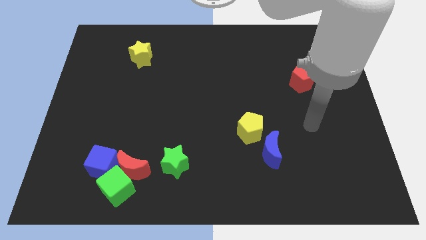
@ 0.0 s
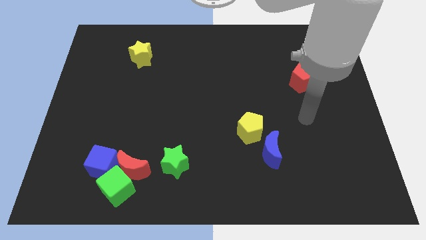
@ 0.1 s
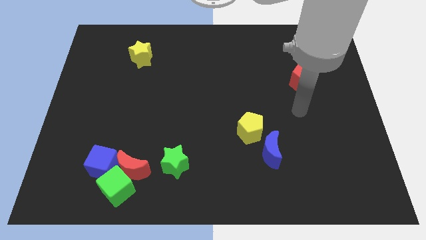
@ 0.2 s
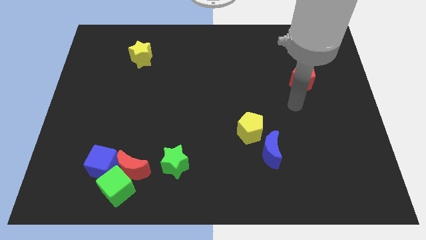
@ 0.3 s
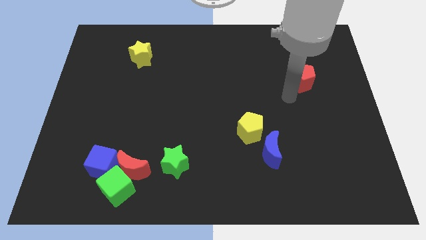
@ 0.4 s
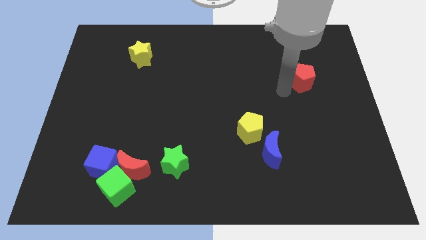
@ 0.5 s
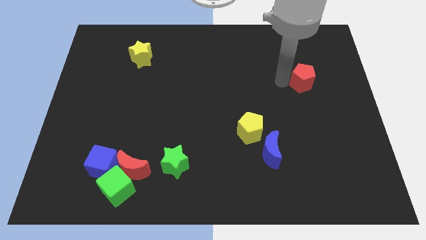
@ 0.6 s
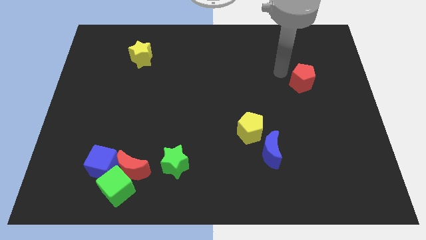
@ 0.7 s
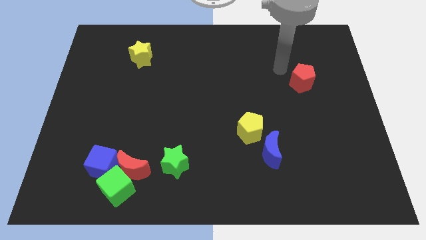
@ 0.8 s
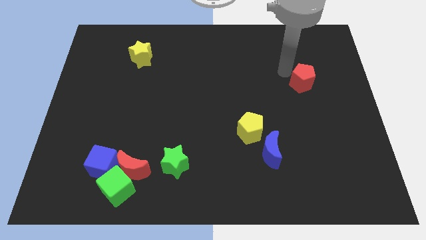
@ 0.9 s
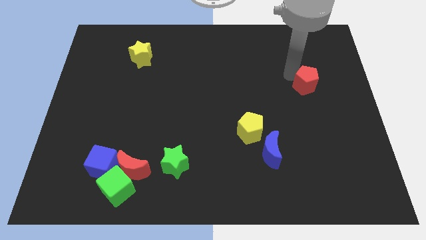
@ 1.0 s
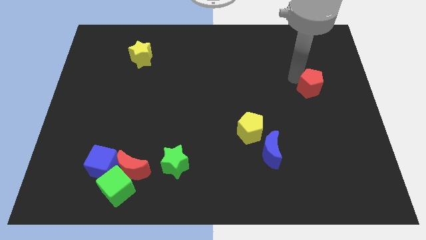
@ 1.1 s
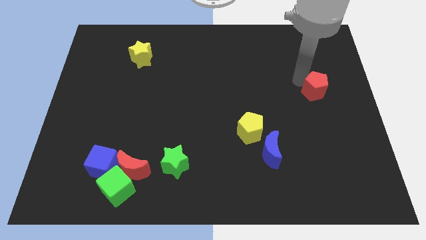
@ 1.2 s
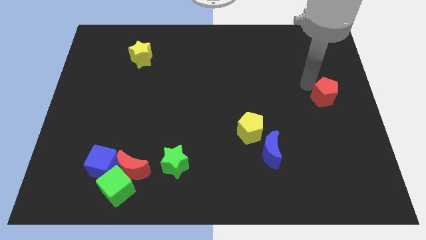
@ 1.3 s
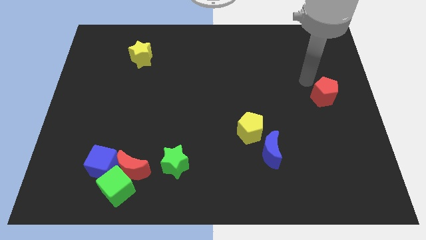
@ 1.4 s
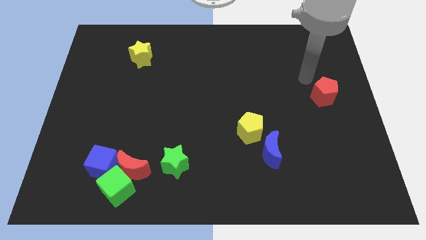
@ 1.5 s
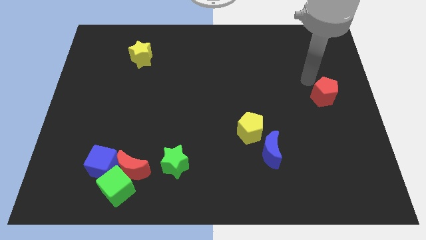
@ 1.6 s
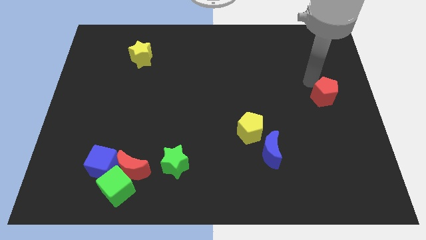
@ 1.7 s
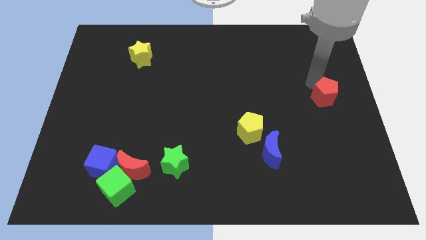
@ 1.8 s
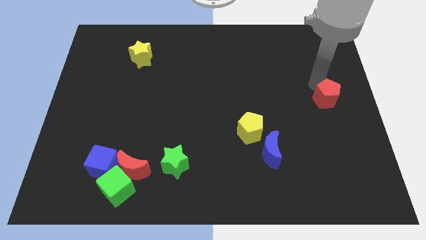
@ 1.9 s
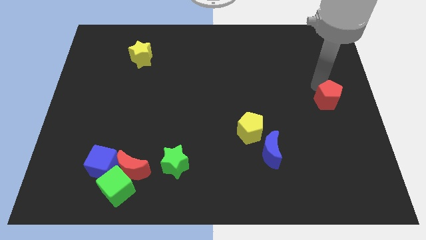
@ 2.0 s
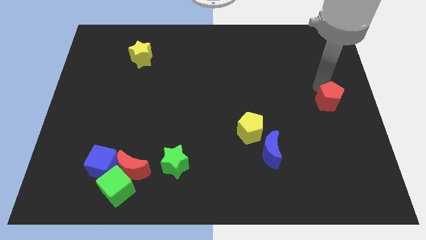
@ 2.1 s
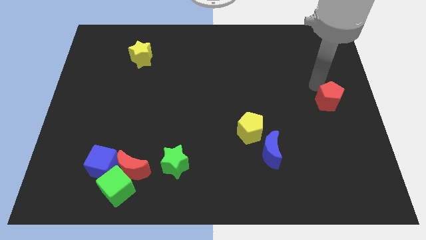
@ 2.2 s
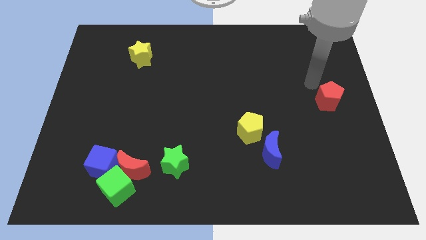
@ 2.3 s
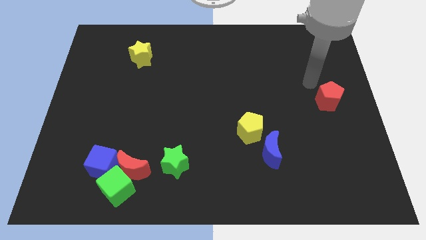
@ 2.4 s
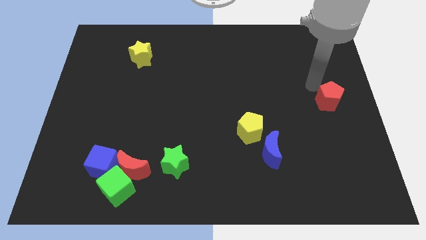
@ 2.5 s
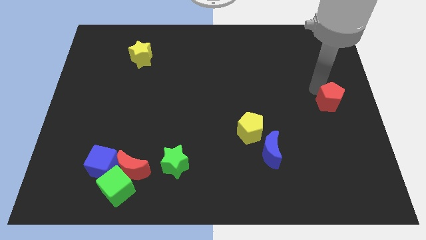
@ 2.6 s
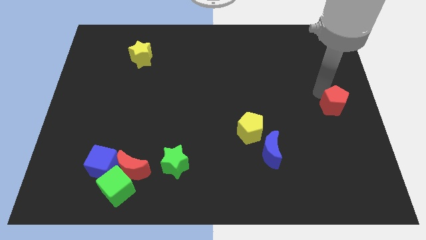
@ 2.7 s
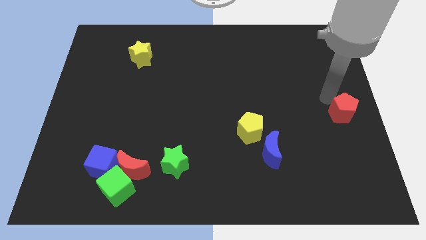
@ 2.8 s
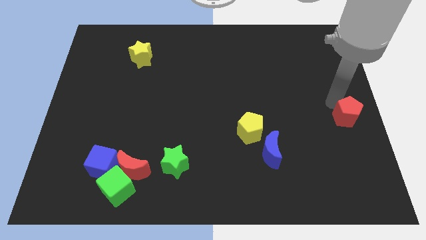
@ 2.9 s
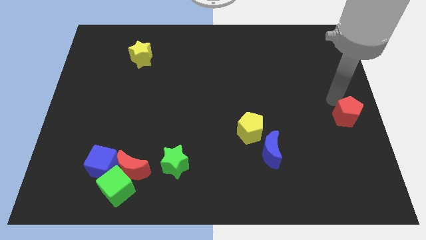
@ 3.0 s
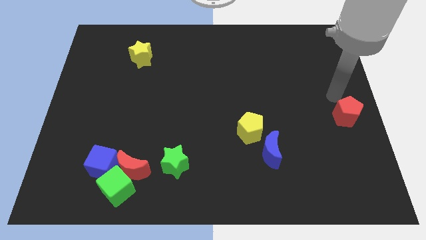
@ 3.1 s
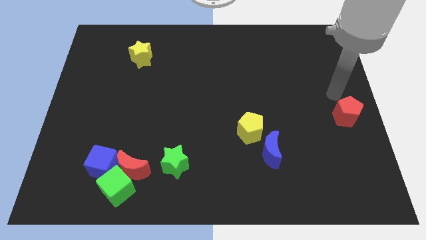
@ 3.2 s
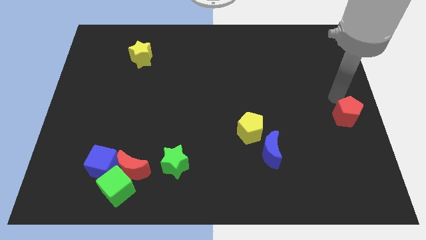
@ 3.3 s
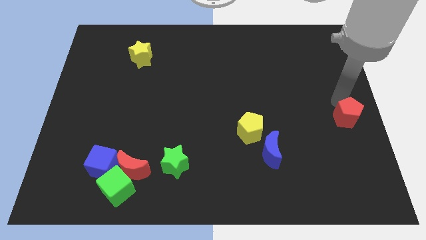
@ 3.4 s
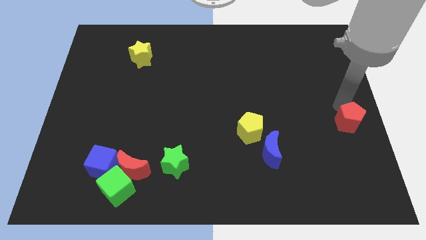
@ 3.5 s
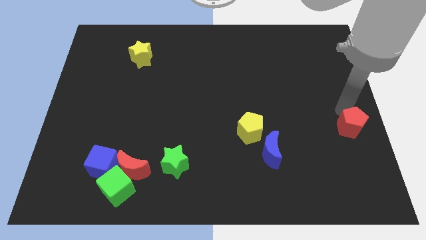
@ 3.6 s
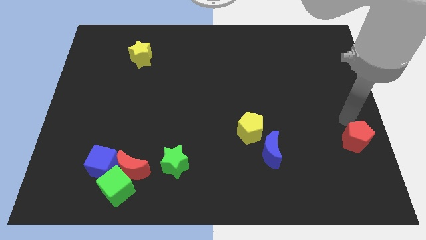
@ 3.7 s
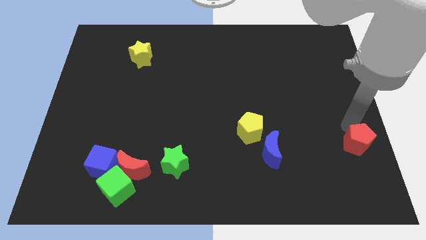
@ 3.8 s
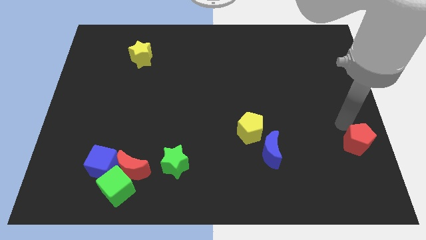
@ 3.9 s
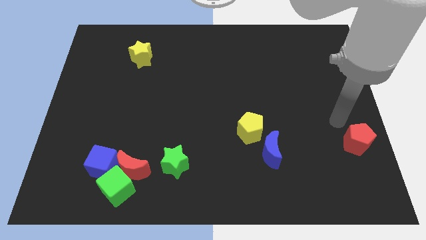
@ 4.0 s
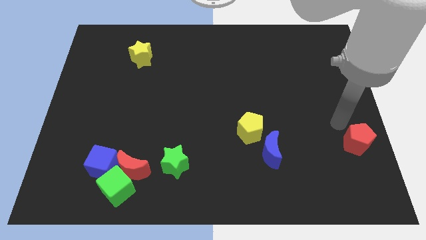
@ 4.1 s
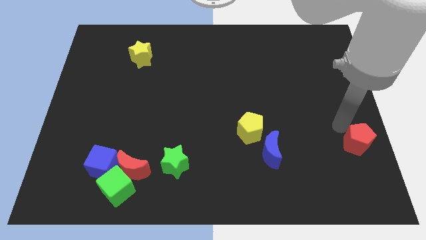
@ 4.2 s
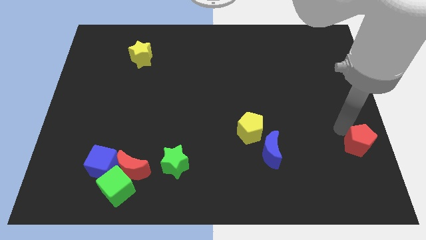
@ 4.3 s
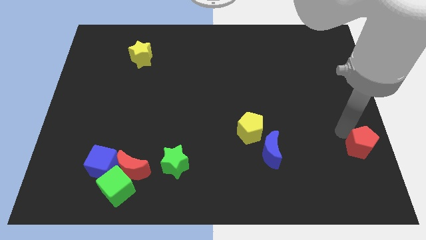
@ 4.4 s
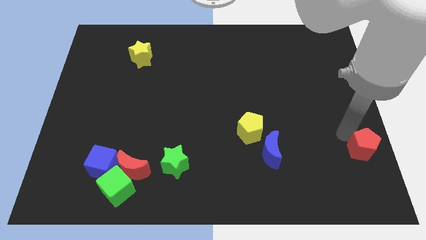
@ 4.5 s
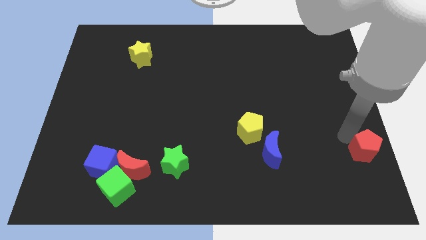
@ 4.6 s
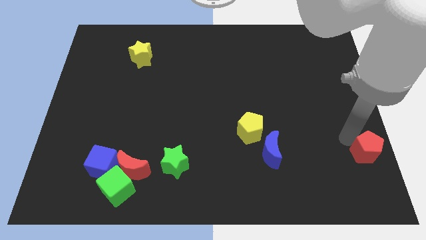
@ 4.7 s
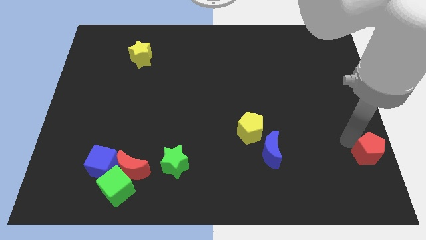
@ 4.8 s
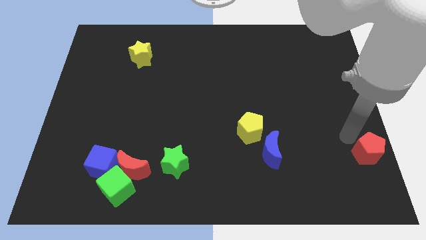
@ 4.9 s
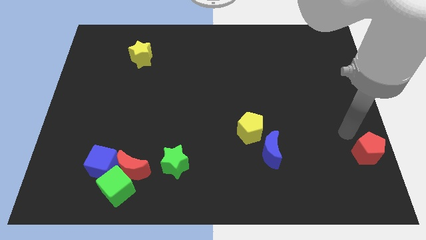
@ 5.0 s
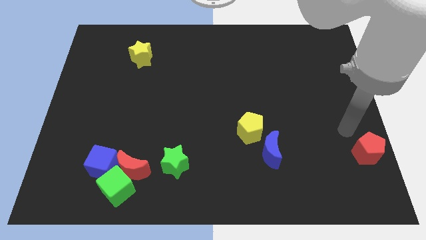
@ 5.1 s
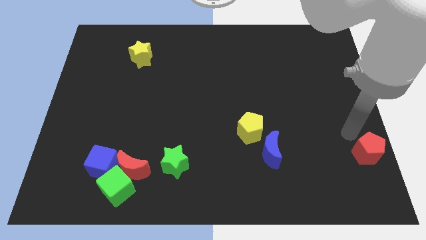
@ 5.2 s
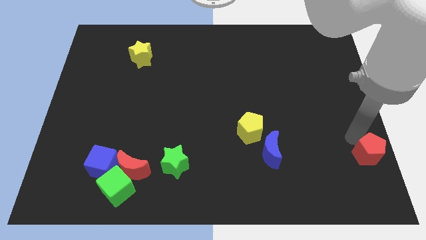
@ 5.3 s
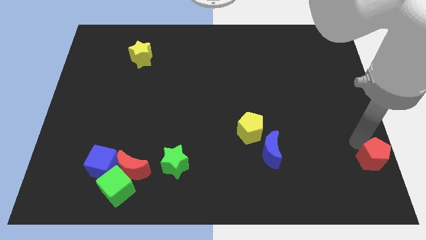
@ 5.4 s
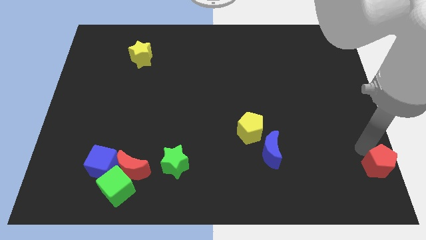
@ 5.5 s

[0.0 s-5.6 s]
slide the red pentagon to the bottom right corner

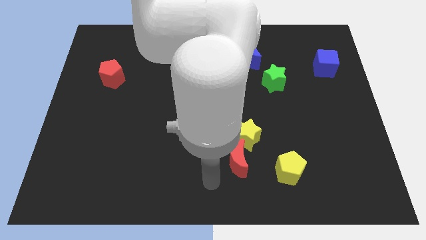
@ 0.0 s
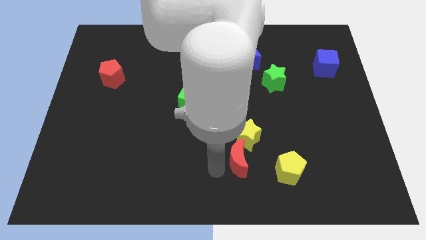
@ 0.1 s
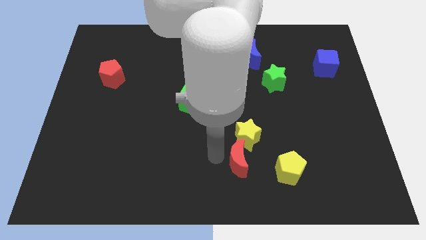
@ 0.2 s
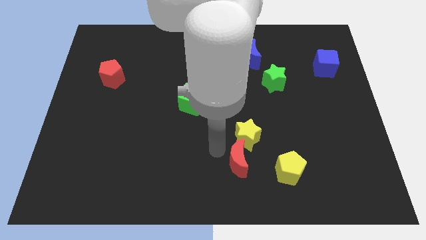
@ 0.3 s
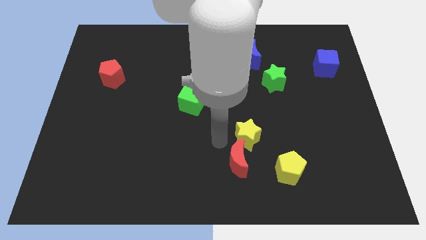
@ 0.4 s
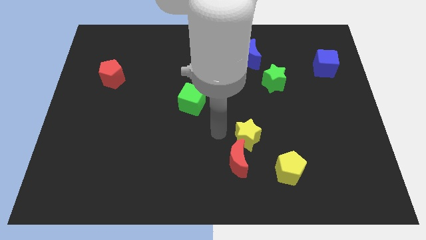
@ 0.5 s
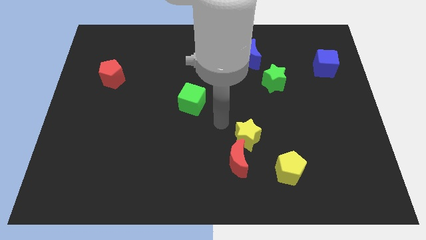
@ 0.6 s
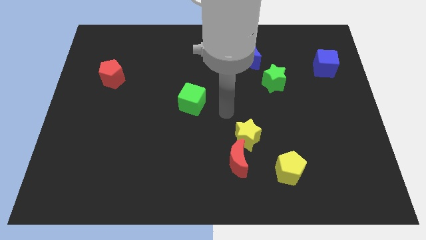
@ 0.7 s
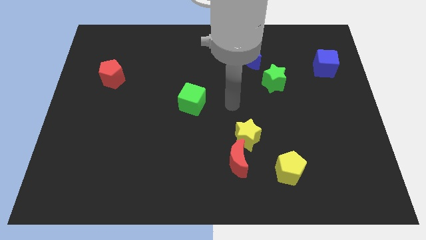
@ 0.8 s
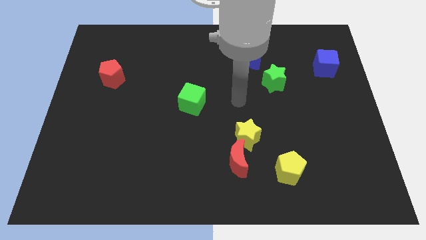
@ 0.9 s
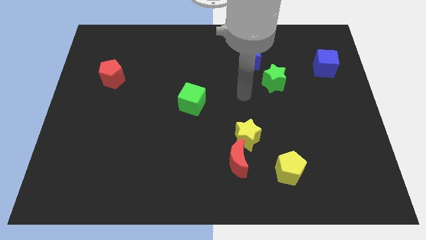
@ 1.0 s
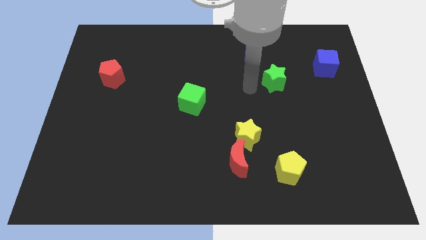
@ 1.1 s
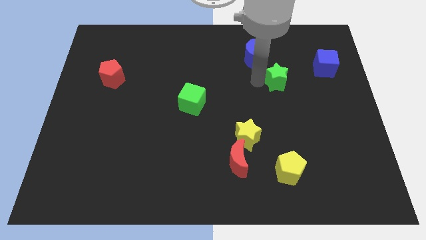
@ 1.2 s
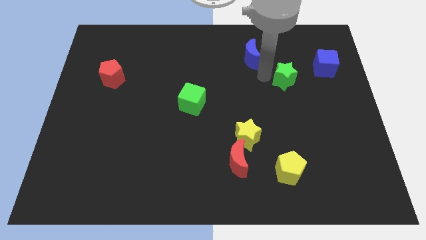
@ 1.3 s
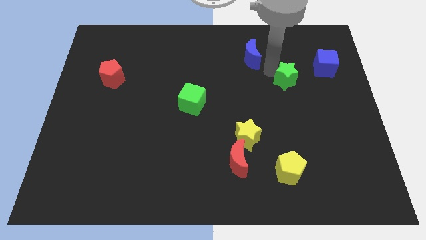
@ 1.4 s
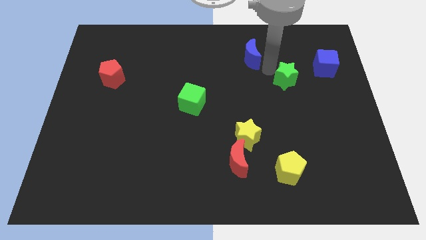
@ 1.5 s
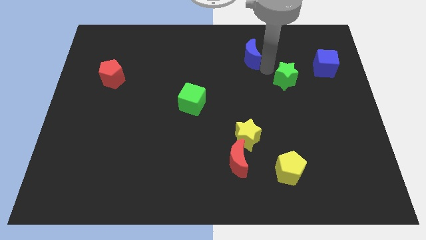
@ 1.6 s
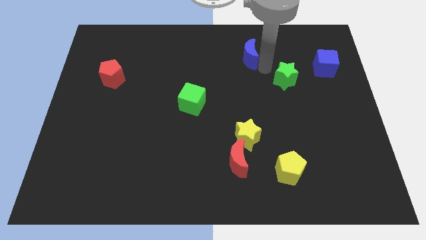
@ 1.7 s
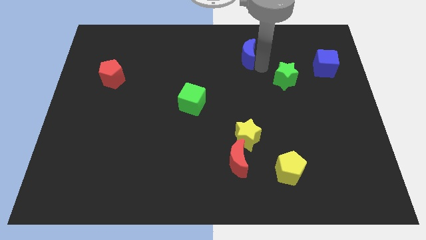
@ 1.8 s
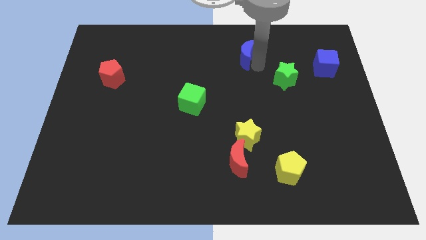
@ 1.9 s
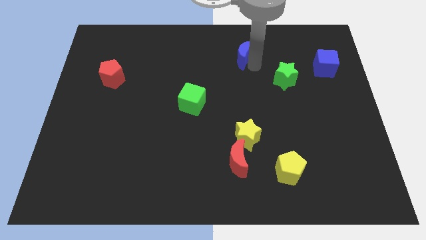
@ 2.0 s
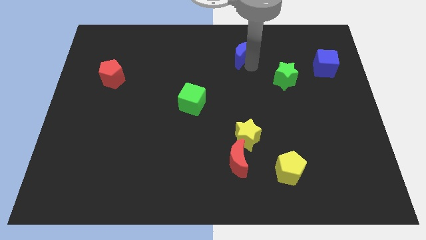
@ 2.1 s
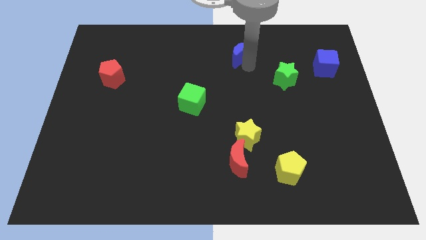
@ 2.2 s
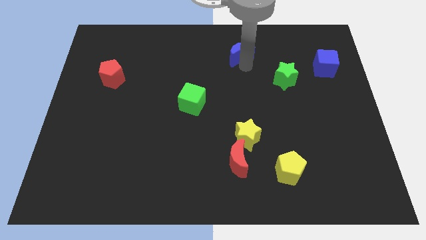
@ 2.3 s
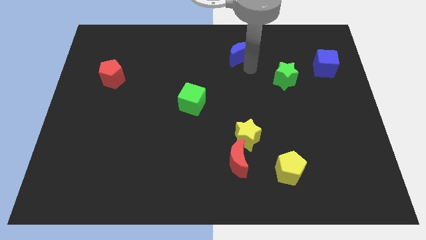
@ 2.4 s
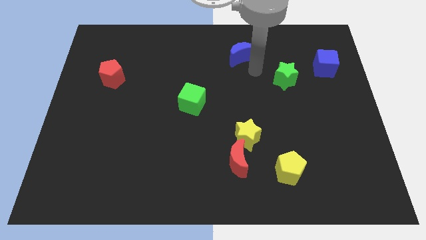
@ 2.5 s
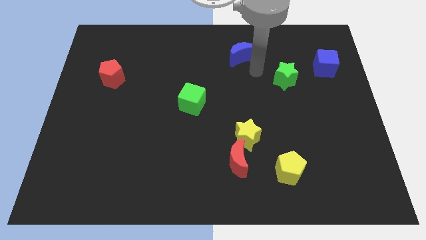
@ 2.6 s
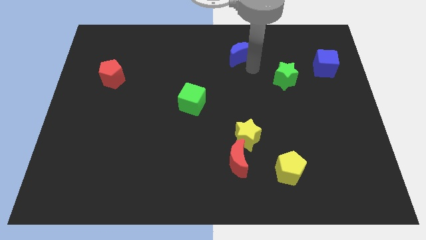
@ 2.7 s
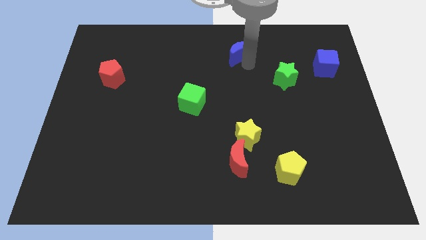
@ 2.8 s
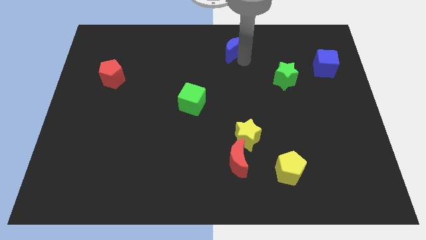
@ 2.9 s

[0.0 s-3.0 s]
put the blue moon to the top side
